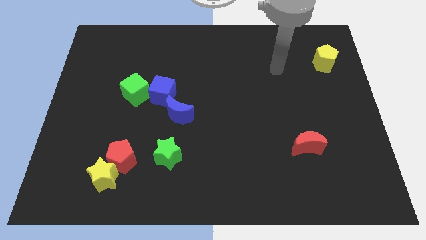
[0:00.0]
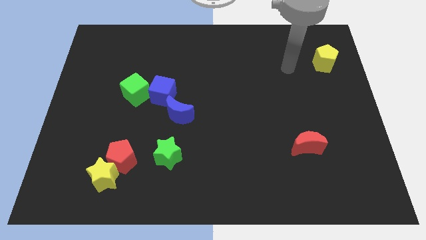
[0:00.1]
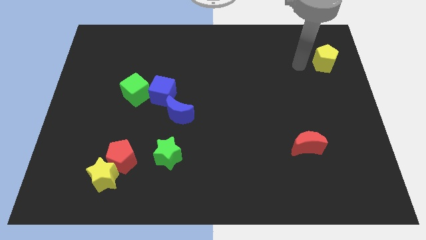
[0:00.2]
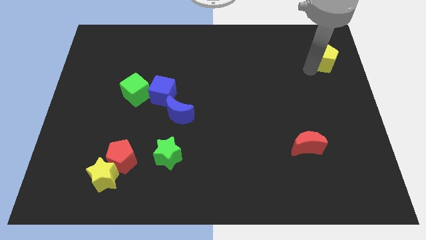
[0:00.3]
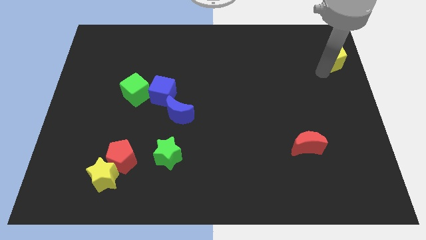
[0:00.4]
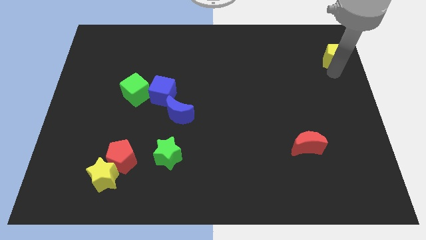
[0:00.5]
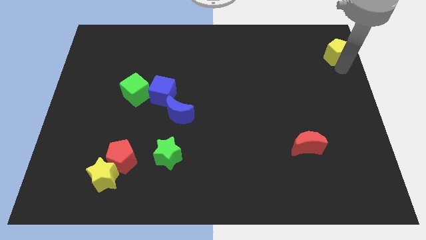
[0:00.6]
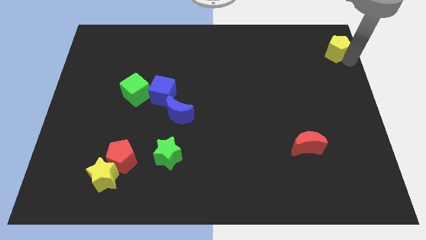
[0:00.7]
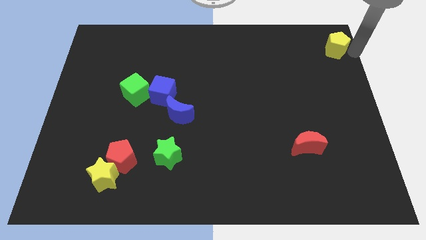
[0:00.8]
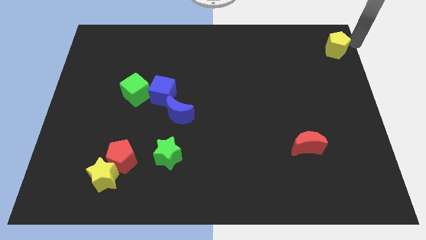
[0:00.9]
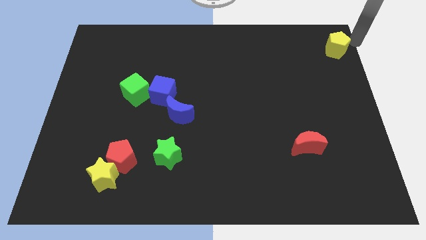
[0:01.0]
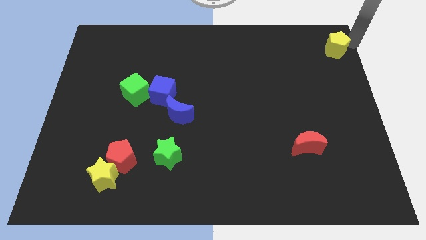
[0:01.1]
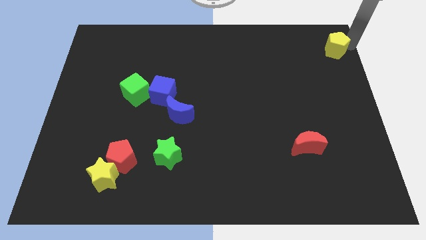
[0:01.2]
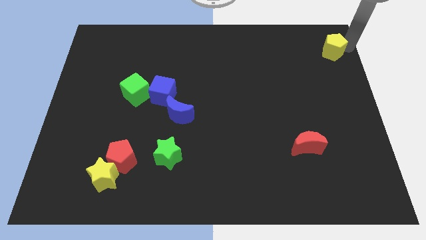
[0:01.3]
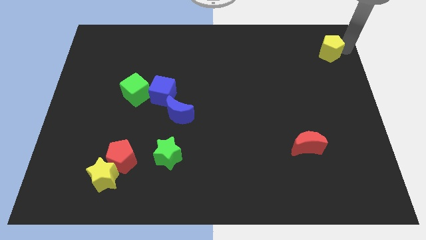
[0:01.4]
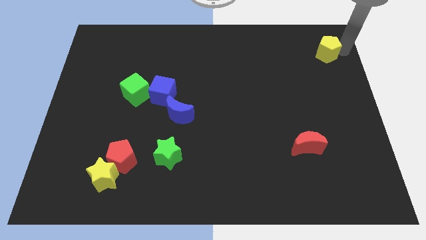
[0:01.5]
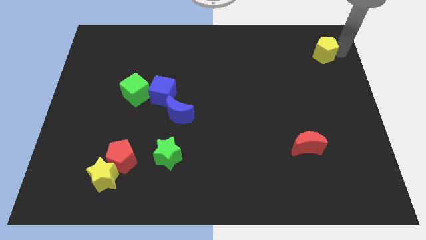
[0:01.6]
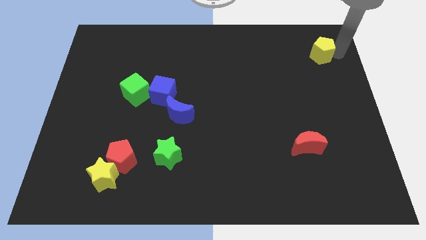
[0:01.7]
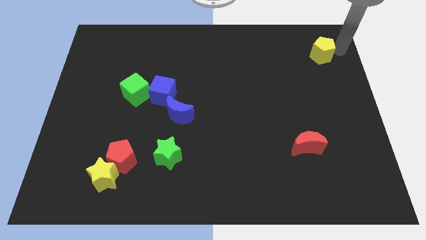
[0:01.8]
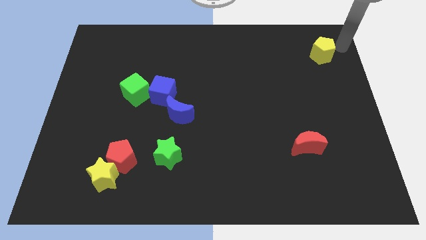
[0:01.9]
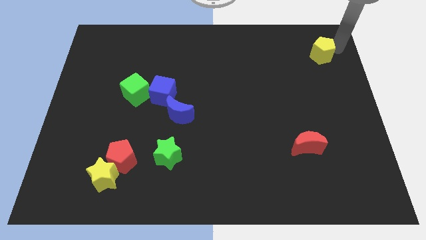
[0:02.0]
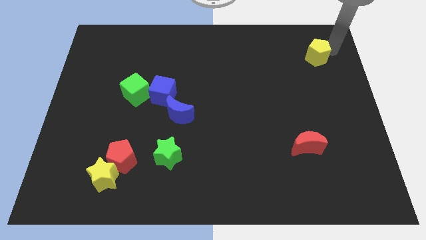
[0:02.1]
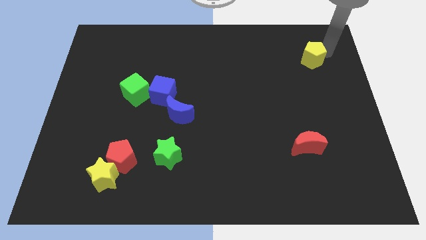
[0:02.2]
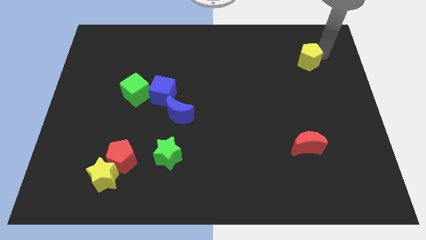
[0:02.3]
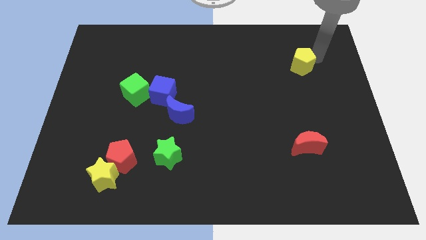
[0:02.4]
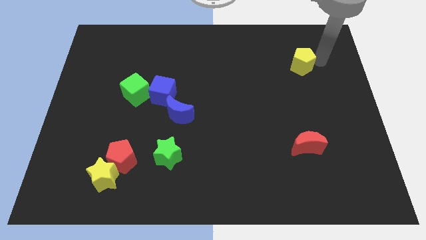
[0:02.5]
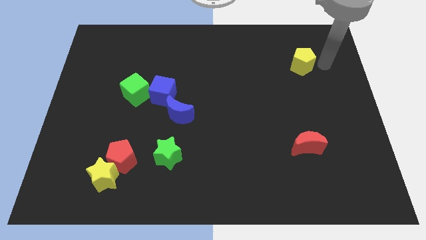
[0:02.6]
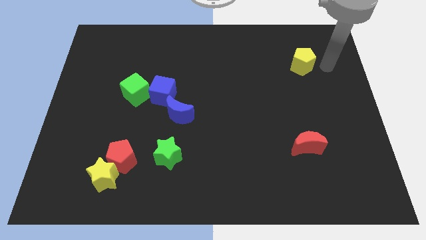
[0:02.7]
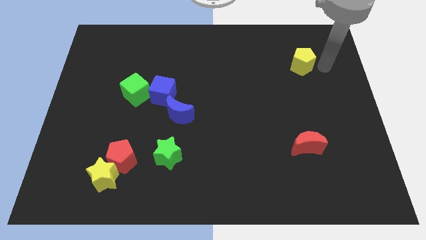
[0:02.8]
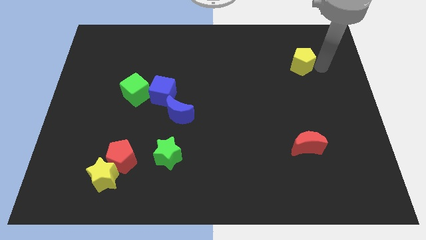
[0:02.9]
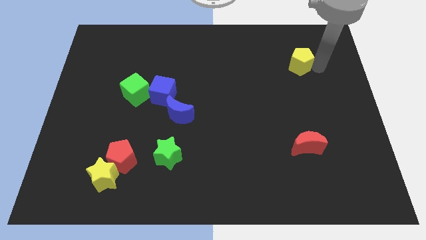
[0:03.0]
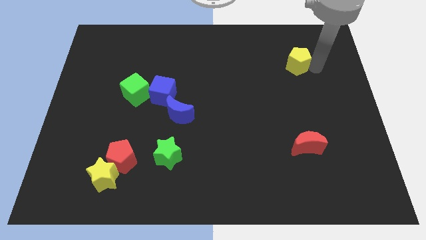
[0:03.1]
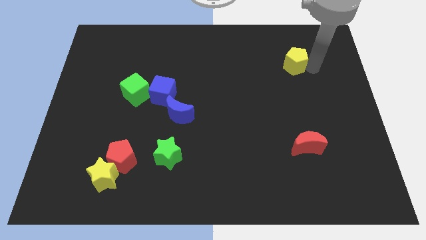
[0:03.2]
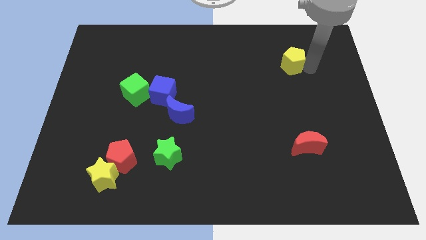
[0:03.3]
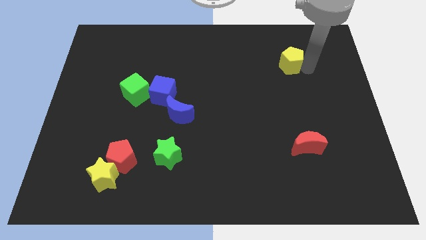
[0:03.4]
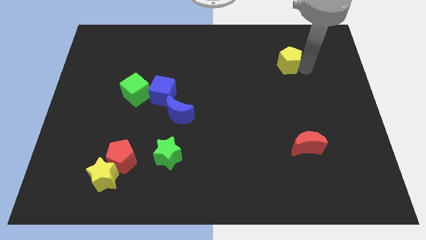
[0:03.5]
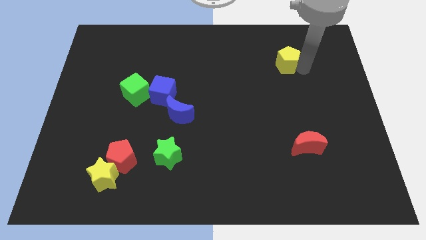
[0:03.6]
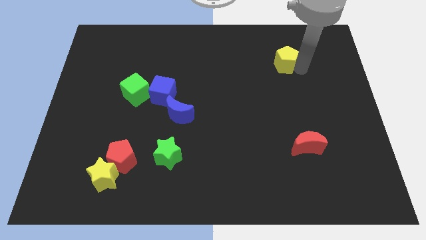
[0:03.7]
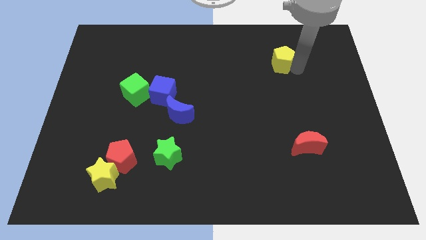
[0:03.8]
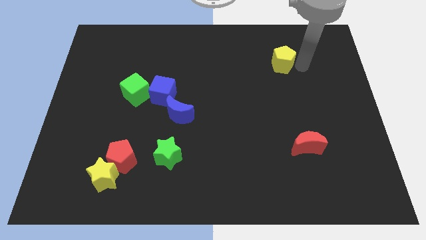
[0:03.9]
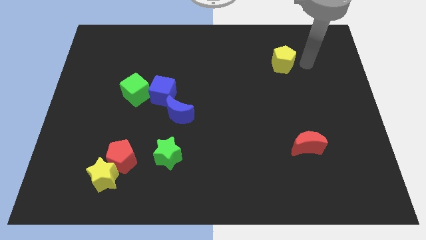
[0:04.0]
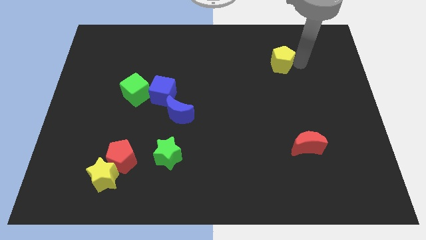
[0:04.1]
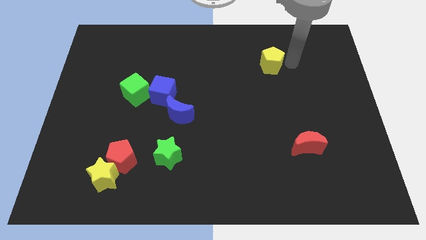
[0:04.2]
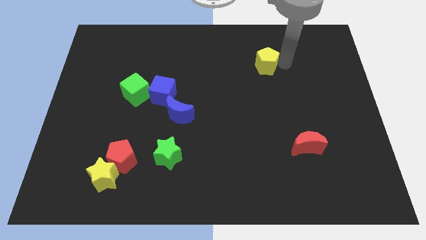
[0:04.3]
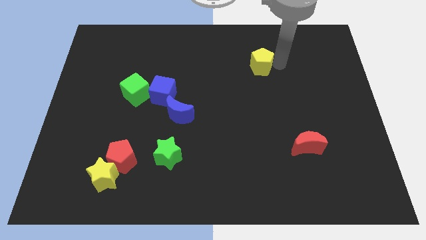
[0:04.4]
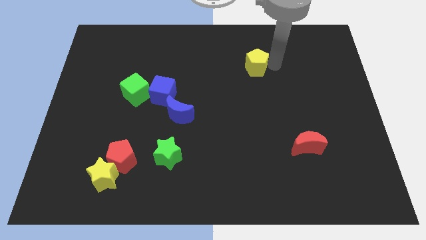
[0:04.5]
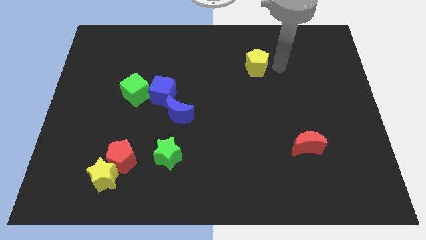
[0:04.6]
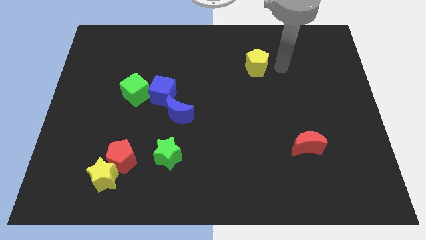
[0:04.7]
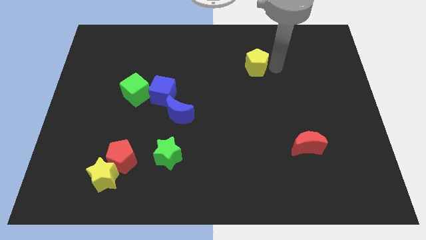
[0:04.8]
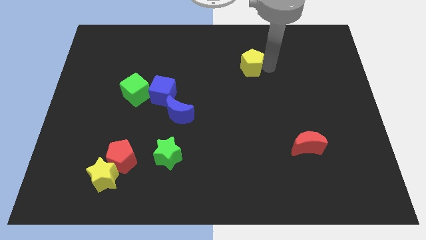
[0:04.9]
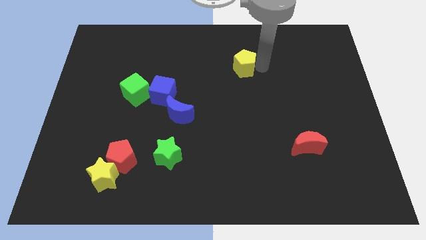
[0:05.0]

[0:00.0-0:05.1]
push the yellow pentagon to the left

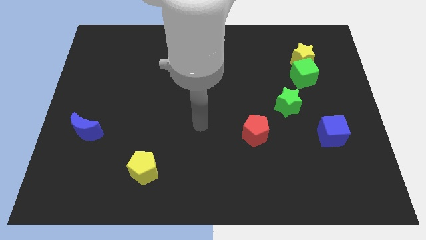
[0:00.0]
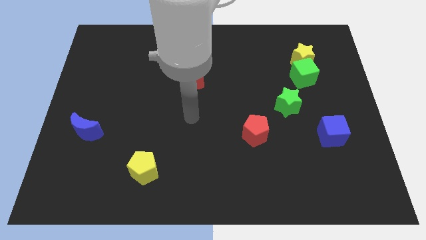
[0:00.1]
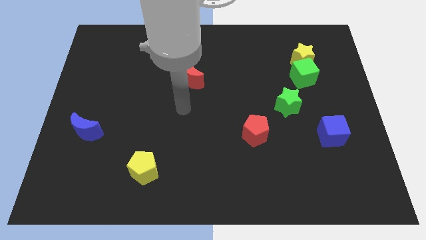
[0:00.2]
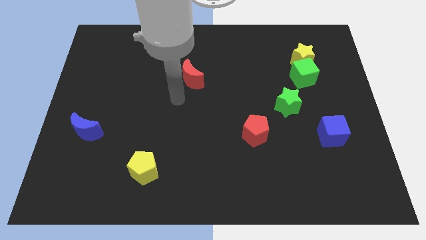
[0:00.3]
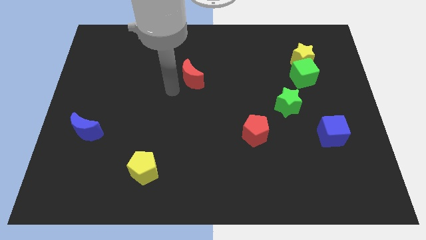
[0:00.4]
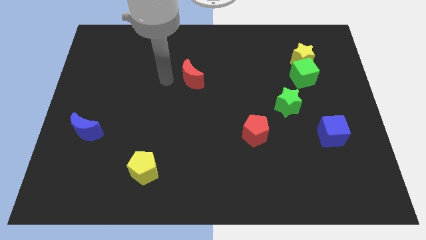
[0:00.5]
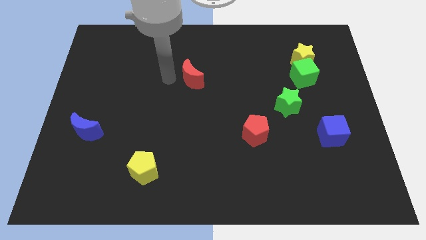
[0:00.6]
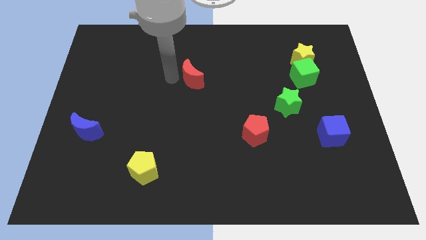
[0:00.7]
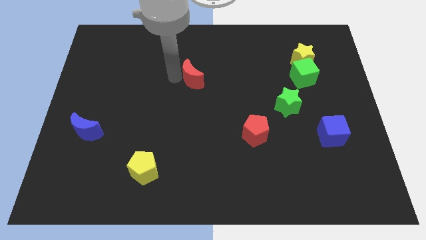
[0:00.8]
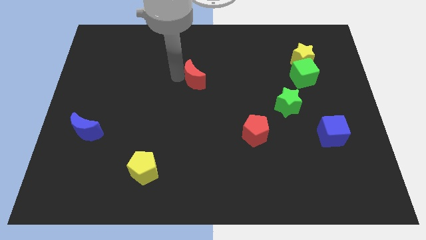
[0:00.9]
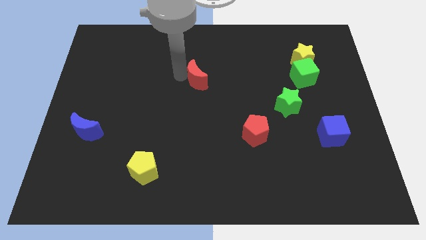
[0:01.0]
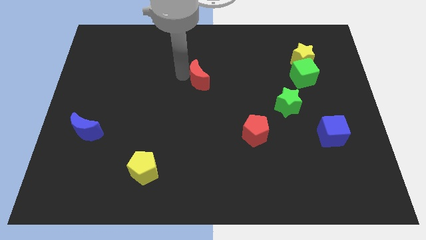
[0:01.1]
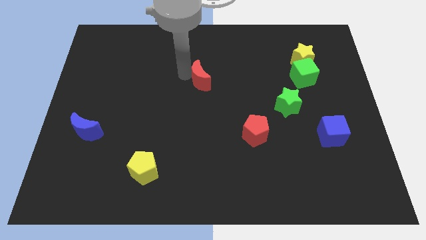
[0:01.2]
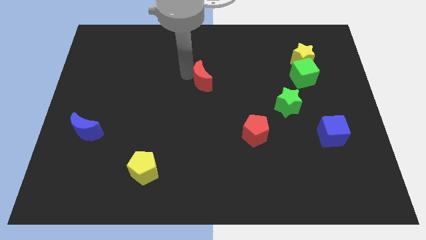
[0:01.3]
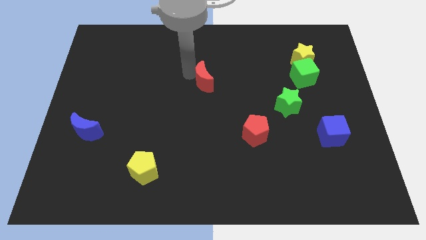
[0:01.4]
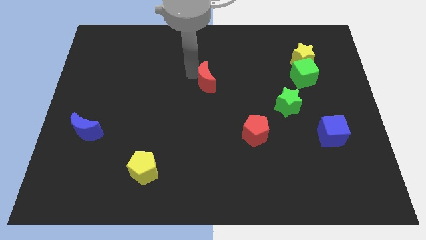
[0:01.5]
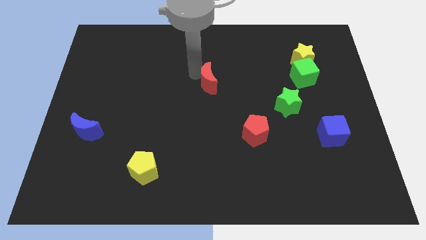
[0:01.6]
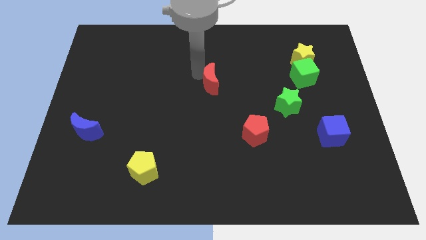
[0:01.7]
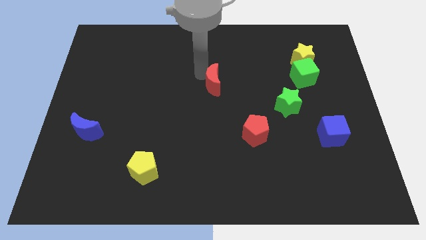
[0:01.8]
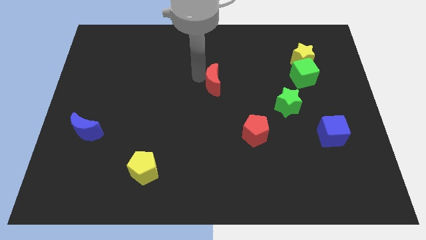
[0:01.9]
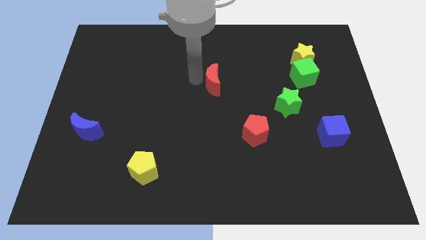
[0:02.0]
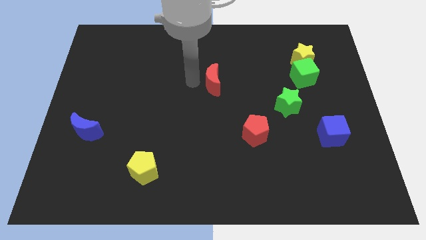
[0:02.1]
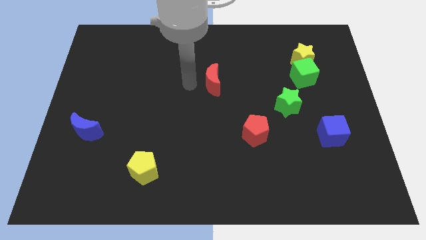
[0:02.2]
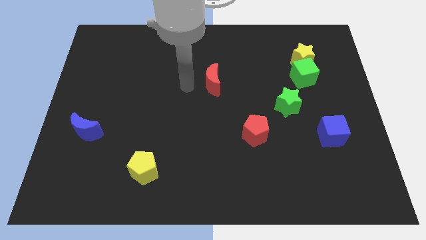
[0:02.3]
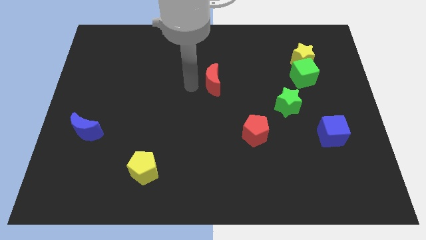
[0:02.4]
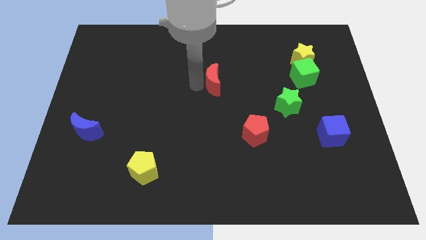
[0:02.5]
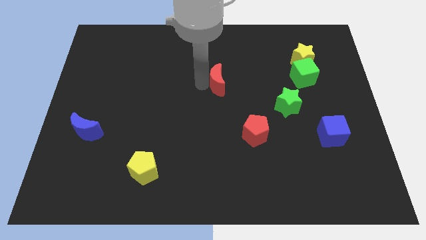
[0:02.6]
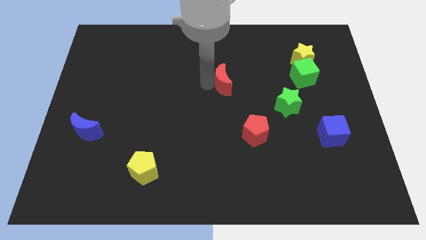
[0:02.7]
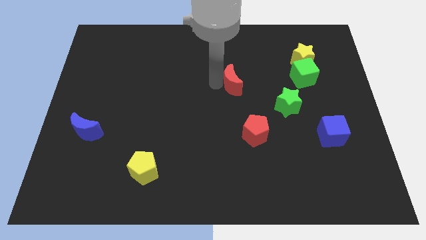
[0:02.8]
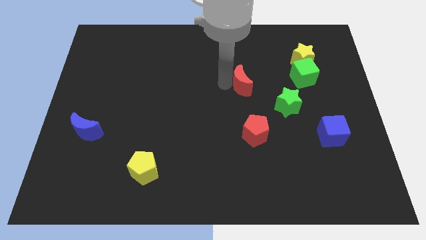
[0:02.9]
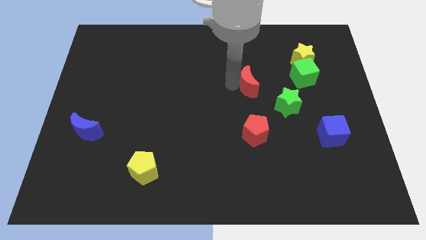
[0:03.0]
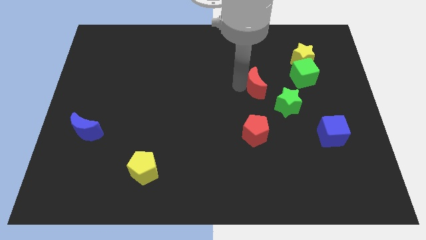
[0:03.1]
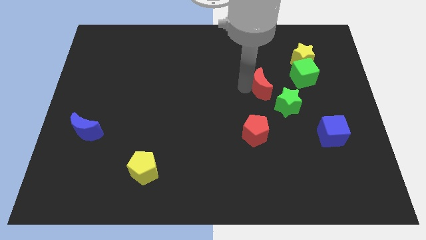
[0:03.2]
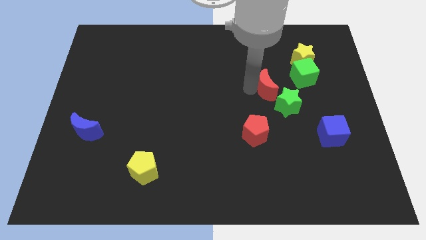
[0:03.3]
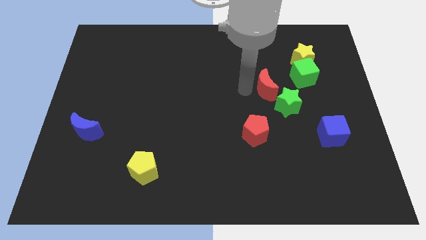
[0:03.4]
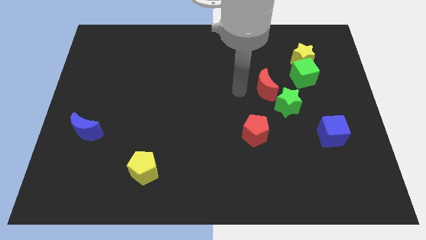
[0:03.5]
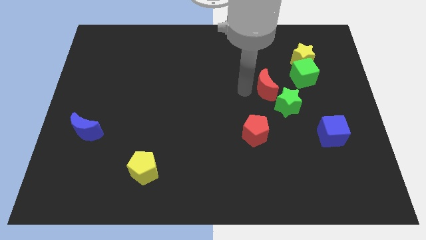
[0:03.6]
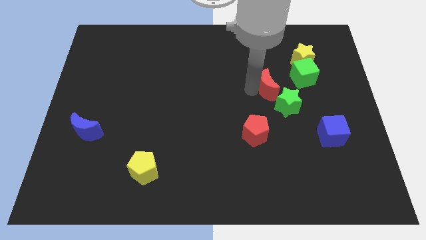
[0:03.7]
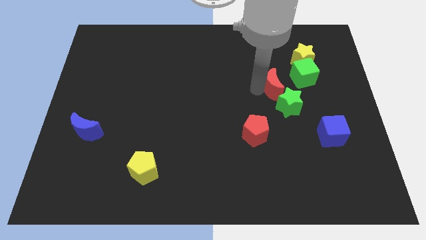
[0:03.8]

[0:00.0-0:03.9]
slide the red moon right

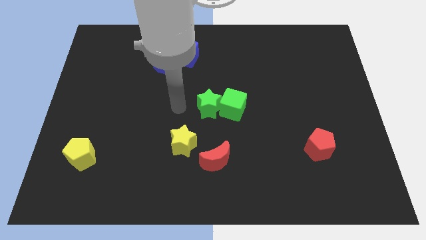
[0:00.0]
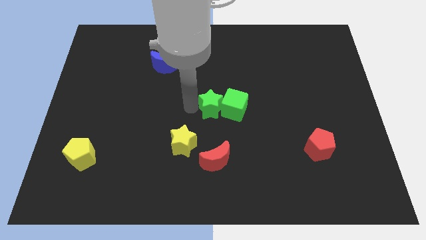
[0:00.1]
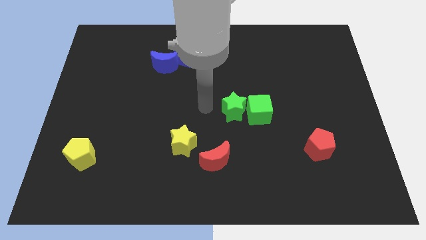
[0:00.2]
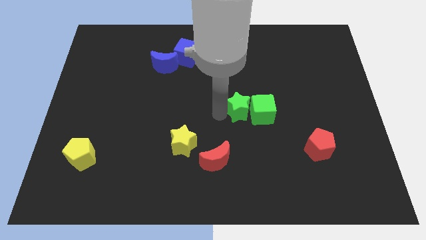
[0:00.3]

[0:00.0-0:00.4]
push the green cube a little bit to the right
